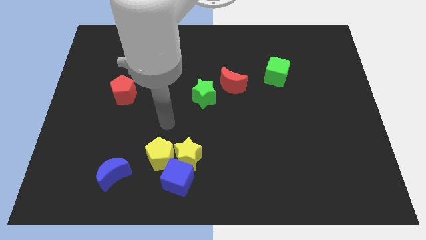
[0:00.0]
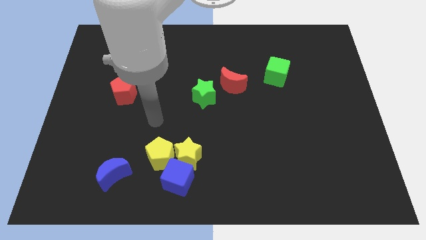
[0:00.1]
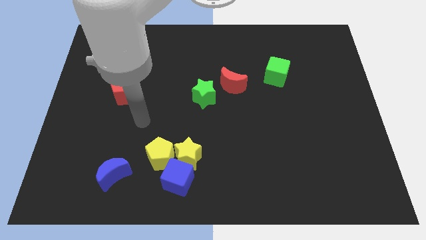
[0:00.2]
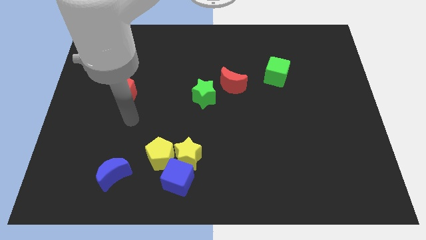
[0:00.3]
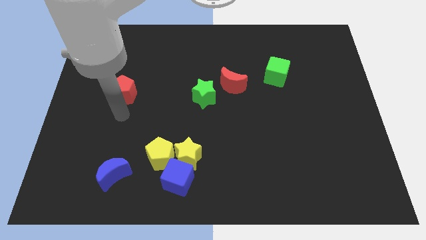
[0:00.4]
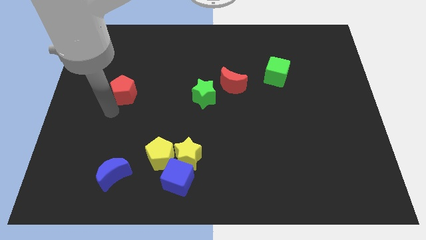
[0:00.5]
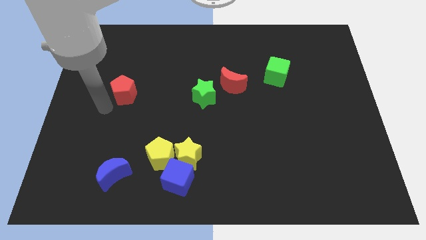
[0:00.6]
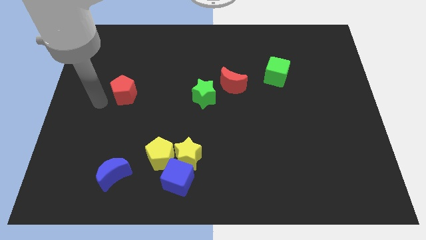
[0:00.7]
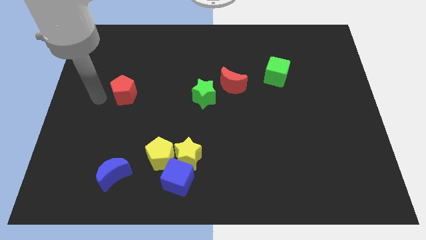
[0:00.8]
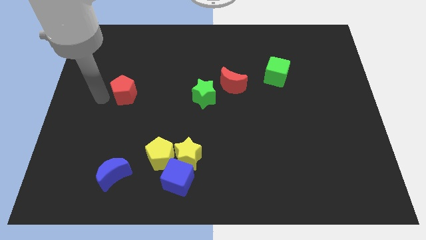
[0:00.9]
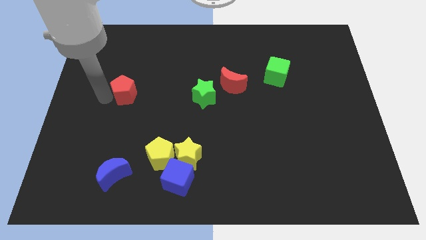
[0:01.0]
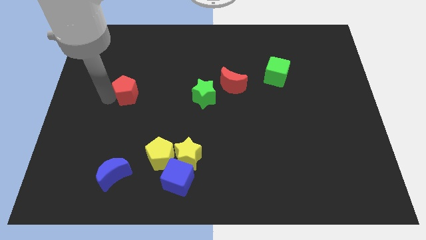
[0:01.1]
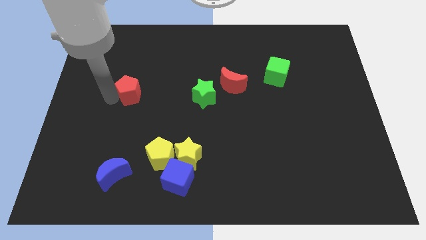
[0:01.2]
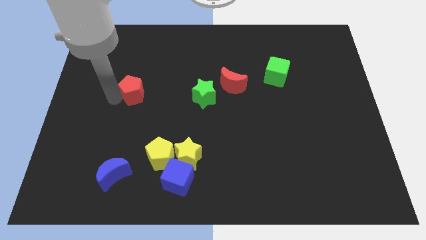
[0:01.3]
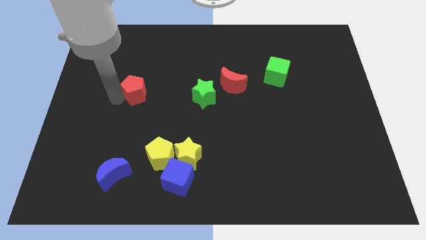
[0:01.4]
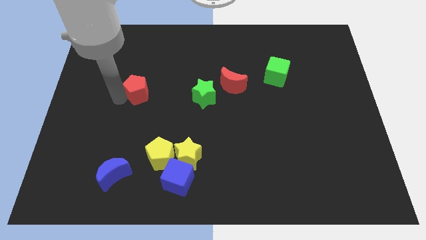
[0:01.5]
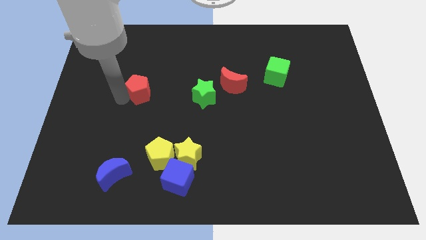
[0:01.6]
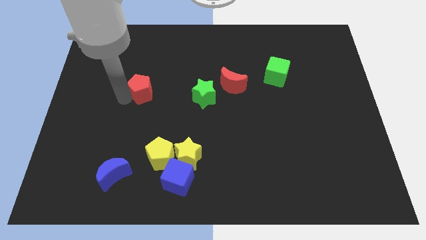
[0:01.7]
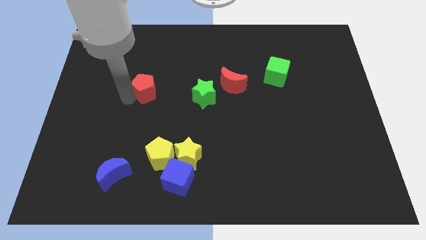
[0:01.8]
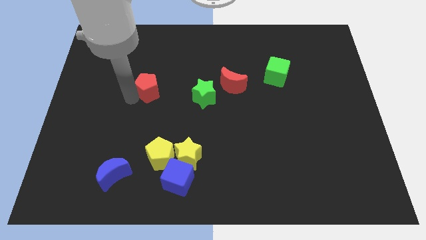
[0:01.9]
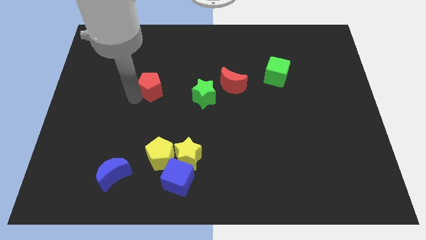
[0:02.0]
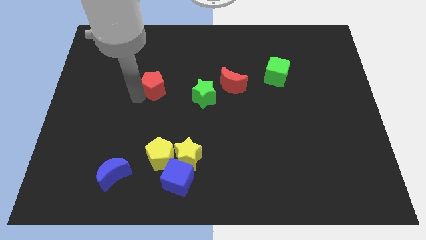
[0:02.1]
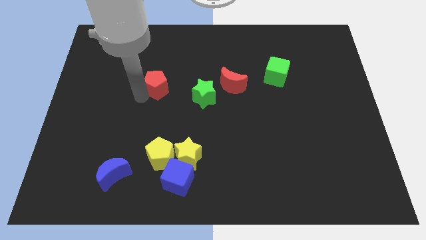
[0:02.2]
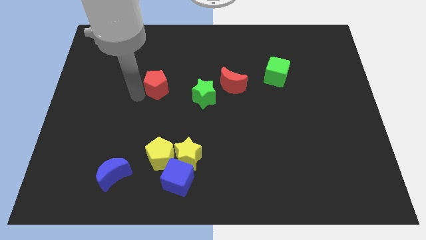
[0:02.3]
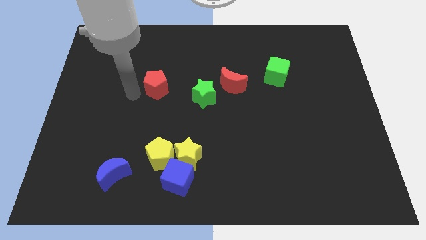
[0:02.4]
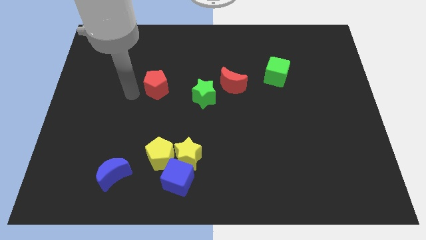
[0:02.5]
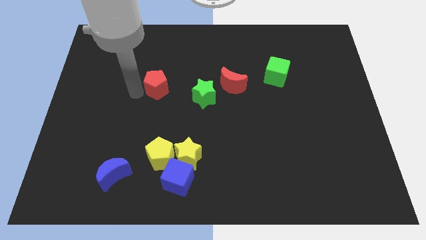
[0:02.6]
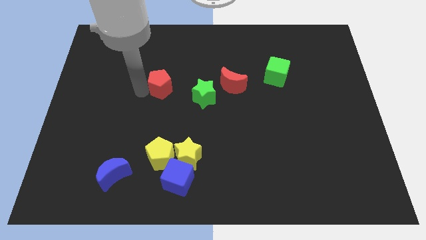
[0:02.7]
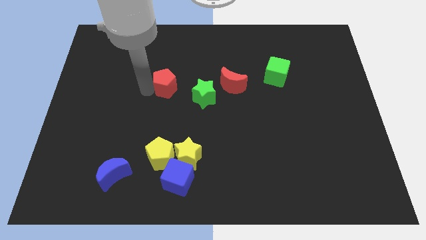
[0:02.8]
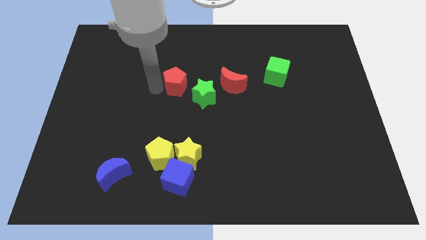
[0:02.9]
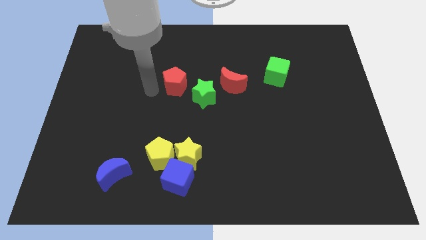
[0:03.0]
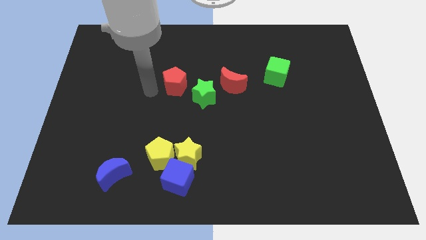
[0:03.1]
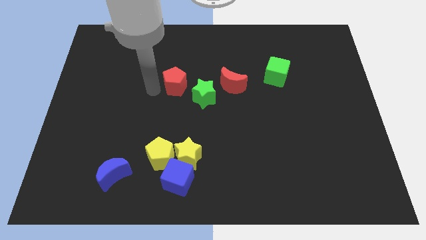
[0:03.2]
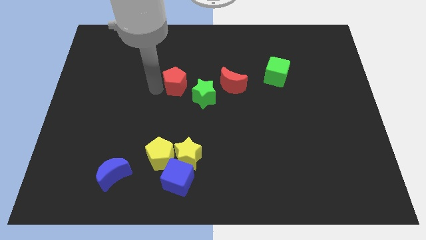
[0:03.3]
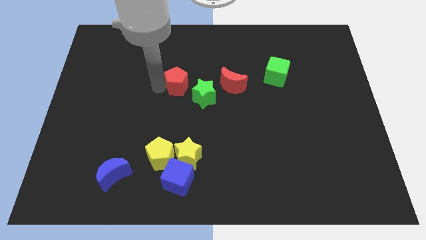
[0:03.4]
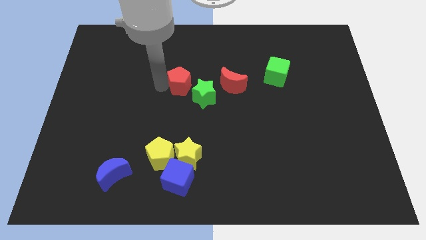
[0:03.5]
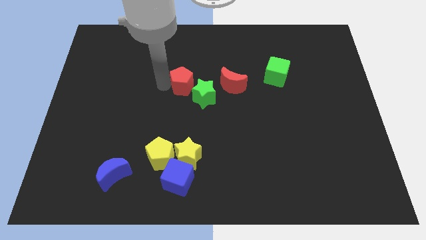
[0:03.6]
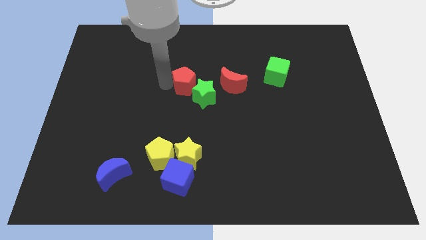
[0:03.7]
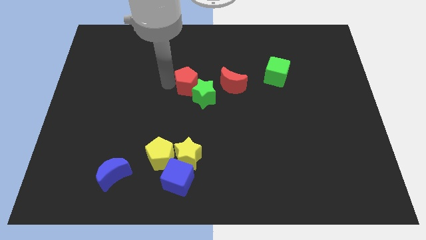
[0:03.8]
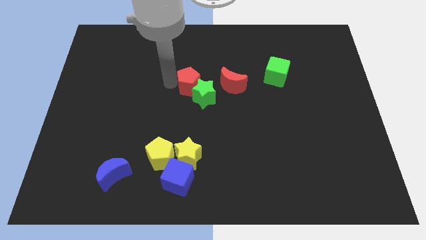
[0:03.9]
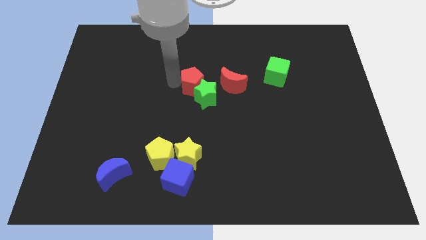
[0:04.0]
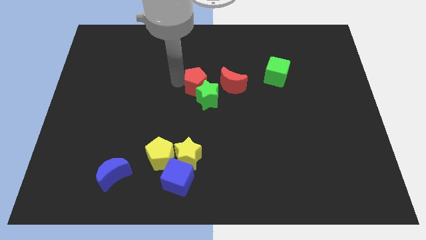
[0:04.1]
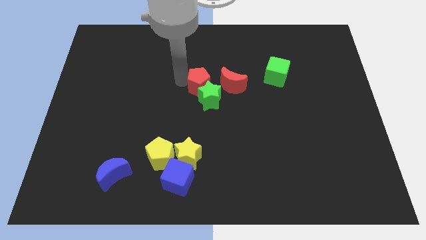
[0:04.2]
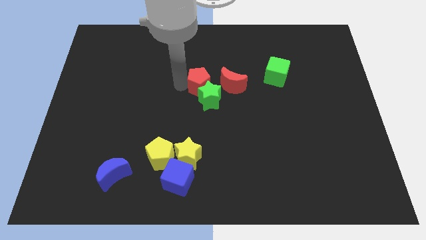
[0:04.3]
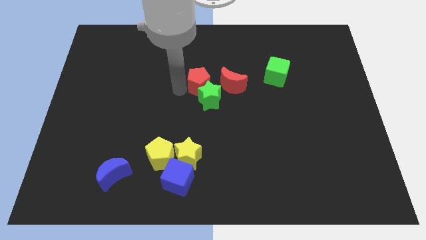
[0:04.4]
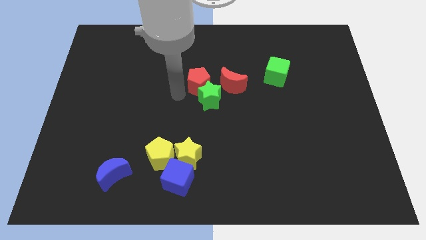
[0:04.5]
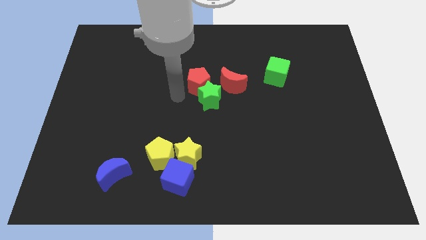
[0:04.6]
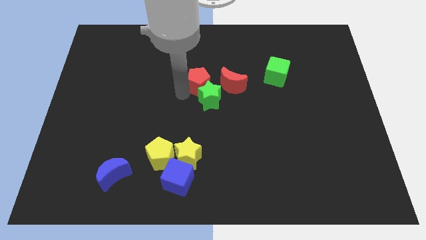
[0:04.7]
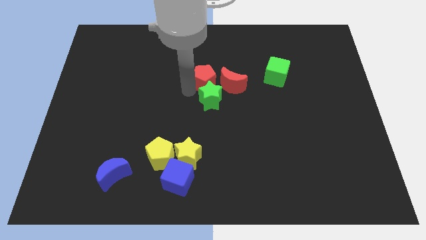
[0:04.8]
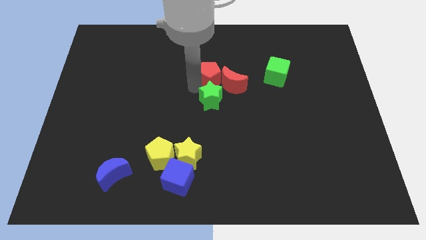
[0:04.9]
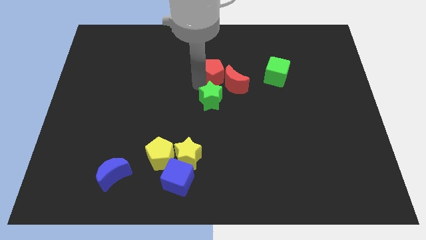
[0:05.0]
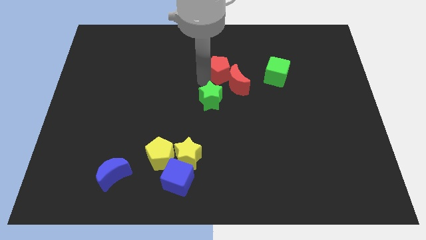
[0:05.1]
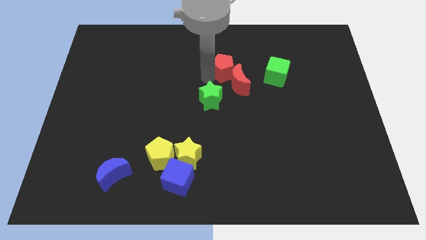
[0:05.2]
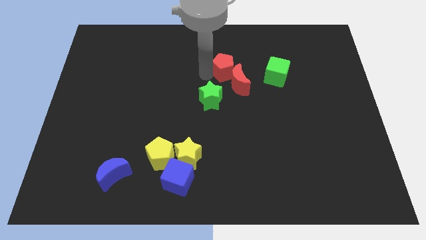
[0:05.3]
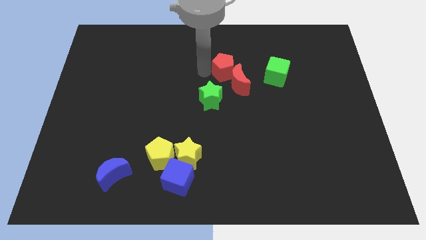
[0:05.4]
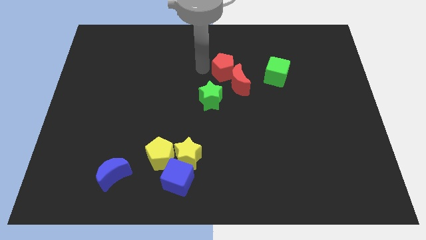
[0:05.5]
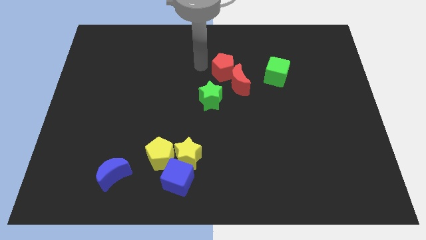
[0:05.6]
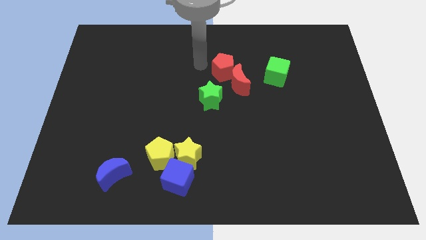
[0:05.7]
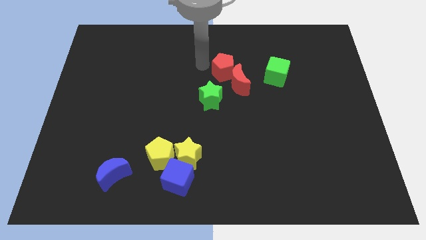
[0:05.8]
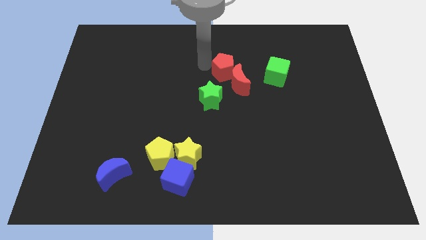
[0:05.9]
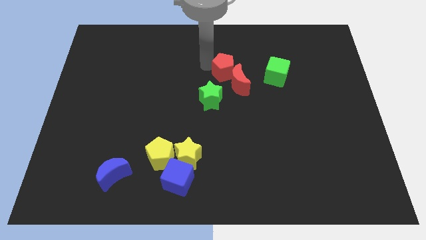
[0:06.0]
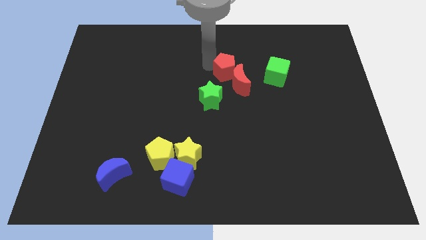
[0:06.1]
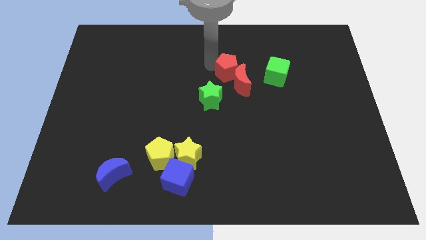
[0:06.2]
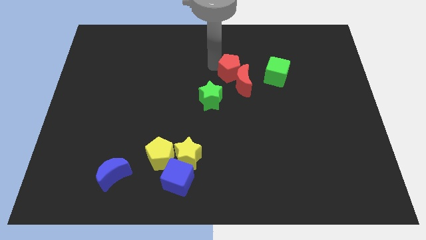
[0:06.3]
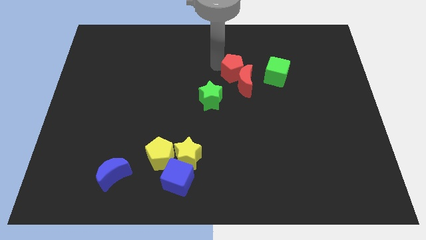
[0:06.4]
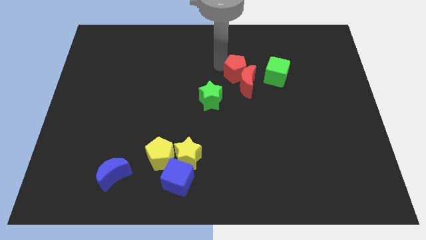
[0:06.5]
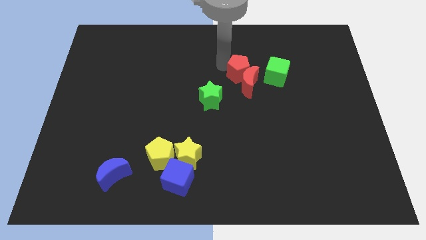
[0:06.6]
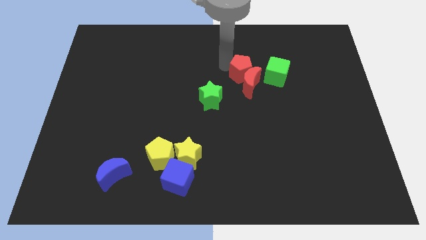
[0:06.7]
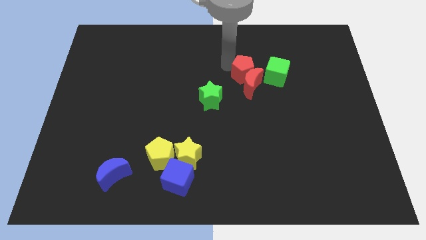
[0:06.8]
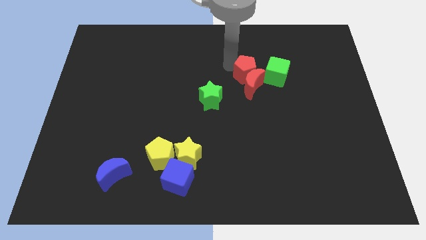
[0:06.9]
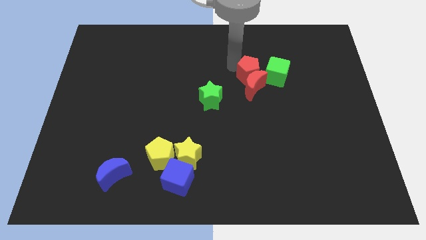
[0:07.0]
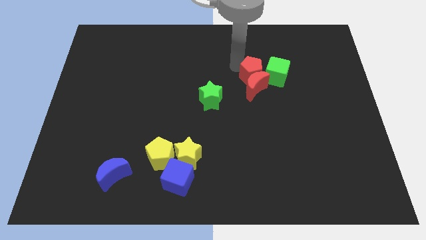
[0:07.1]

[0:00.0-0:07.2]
push the red pentagon towards the green cube
